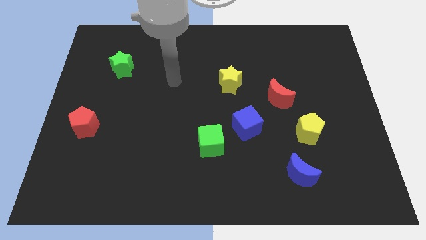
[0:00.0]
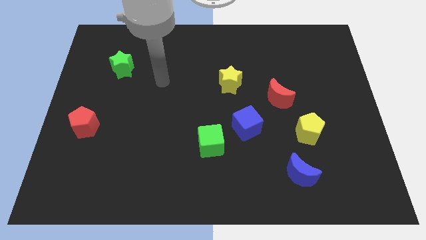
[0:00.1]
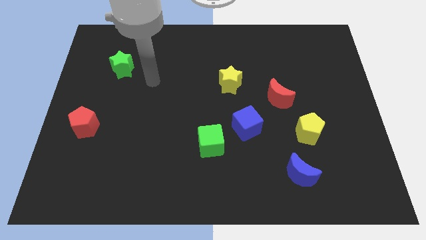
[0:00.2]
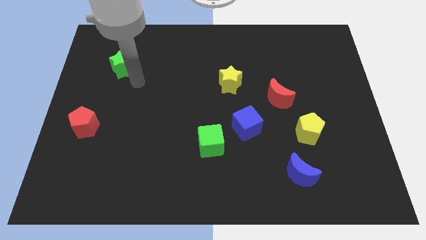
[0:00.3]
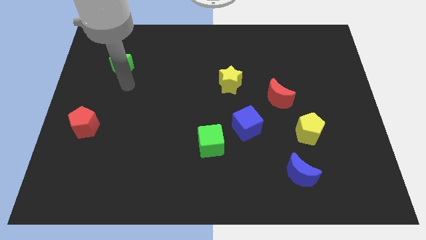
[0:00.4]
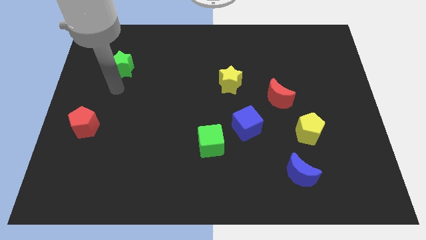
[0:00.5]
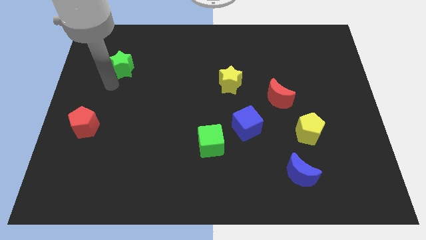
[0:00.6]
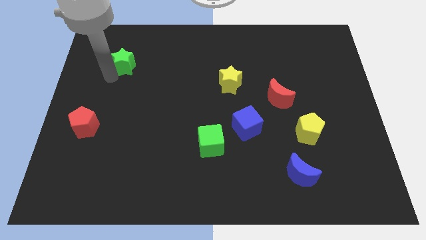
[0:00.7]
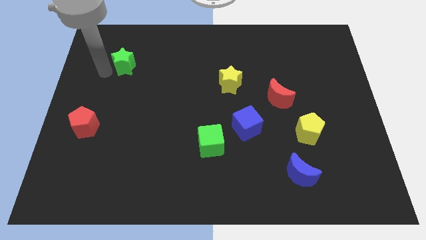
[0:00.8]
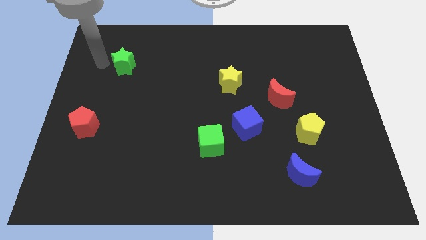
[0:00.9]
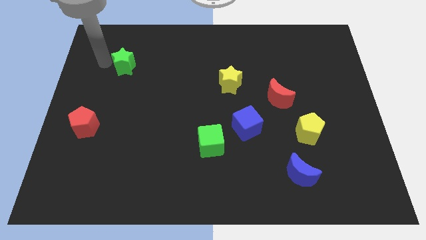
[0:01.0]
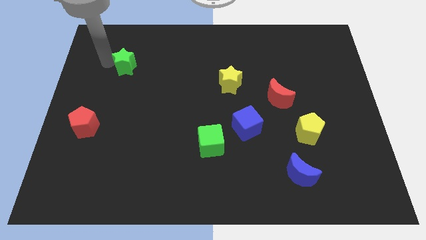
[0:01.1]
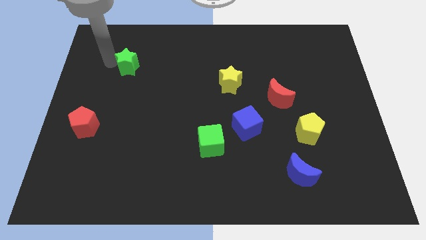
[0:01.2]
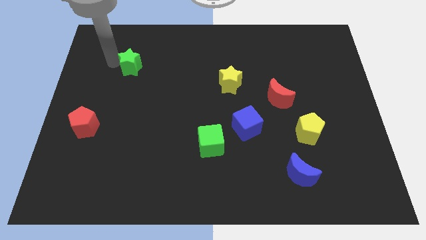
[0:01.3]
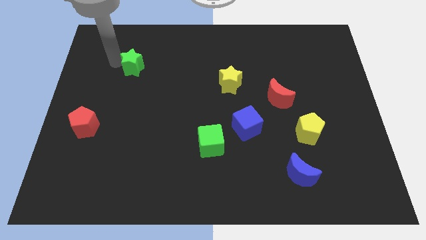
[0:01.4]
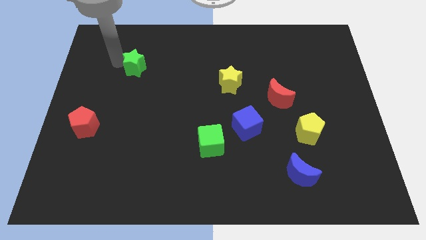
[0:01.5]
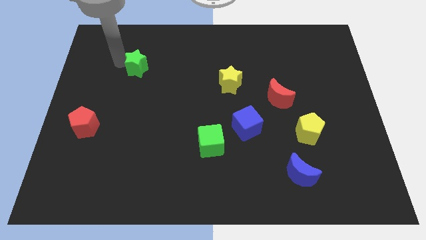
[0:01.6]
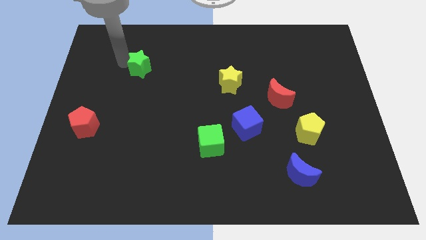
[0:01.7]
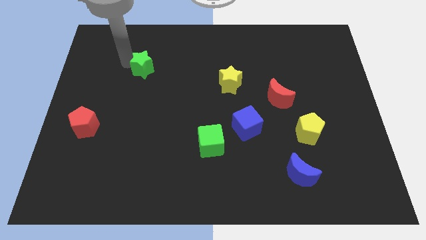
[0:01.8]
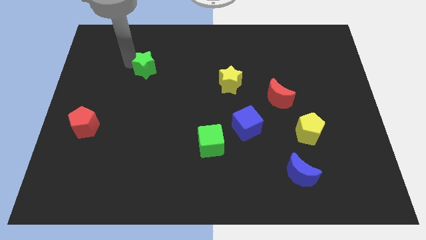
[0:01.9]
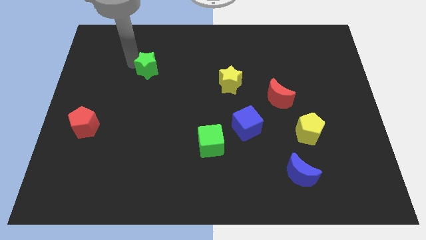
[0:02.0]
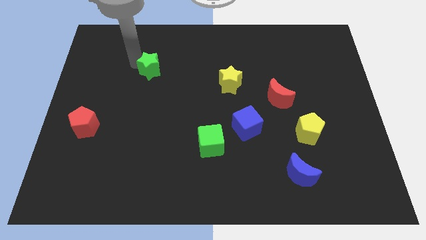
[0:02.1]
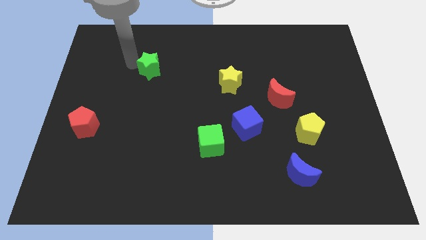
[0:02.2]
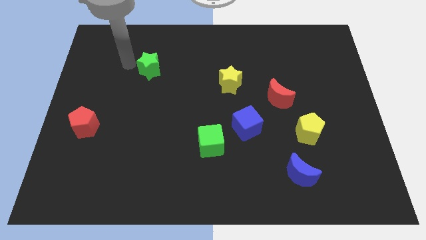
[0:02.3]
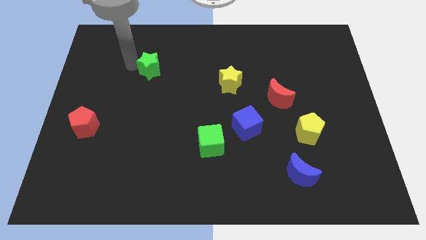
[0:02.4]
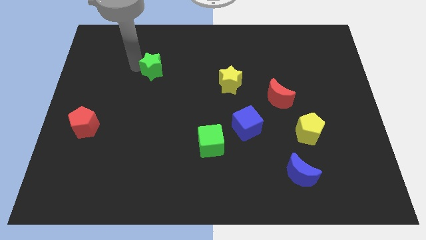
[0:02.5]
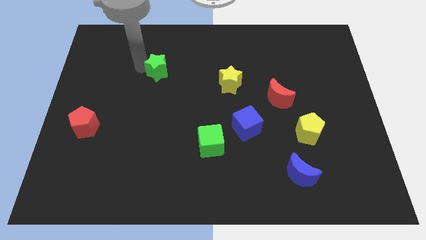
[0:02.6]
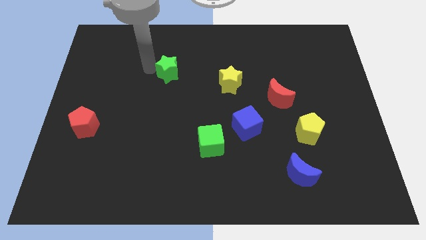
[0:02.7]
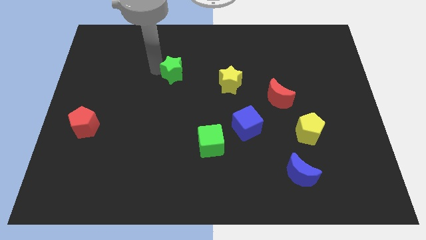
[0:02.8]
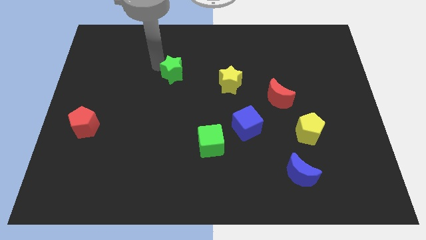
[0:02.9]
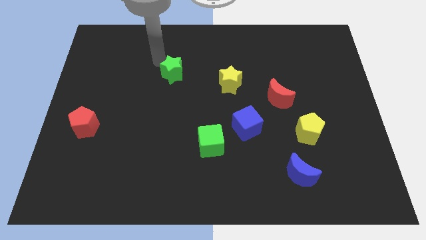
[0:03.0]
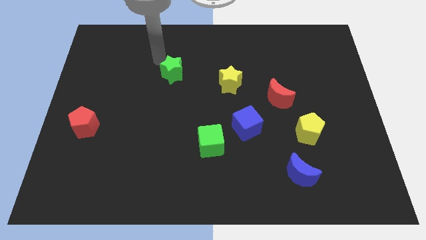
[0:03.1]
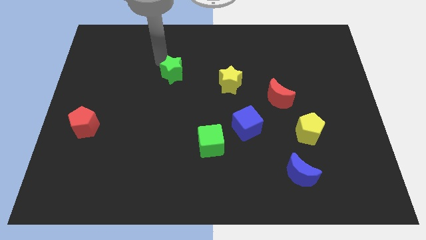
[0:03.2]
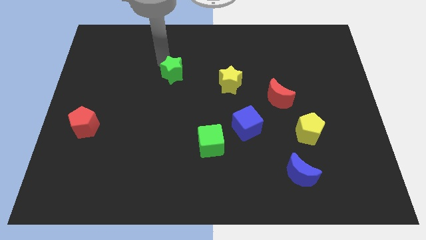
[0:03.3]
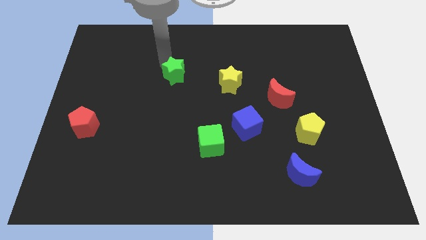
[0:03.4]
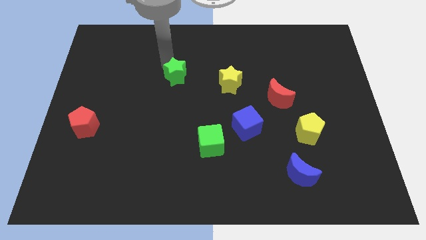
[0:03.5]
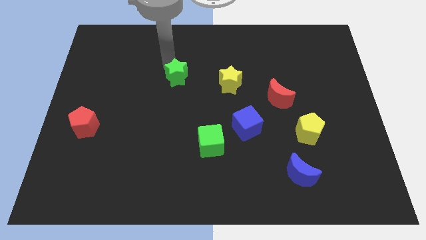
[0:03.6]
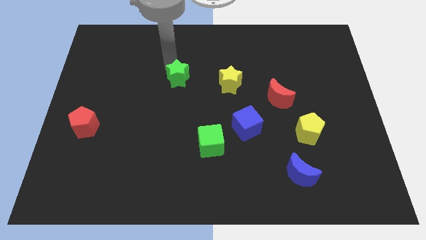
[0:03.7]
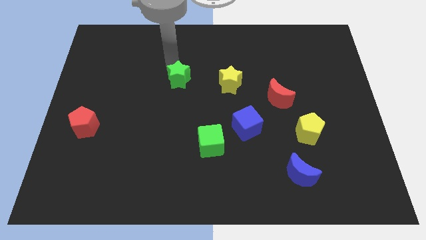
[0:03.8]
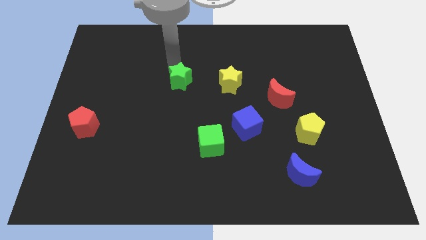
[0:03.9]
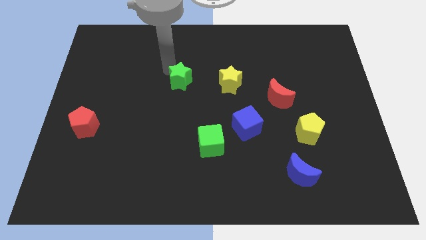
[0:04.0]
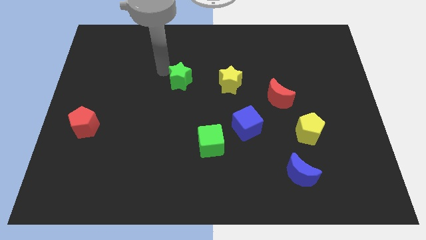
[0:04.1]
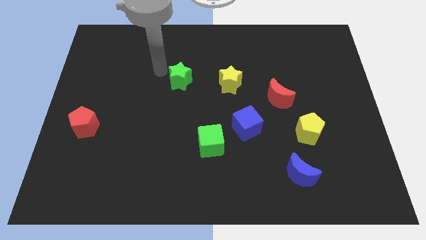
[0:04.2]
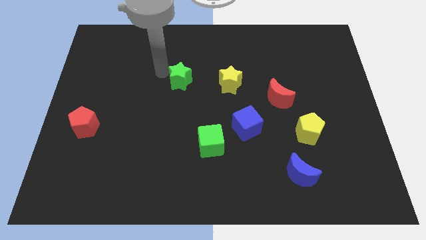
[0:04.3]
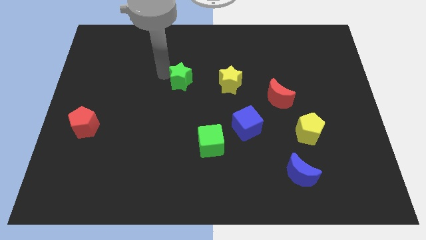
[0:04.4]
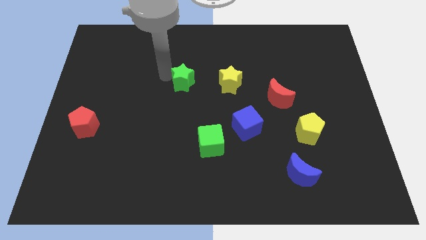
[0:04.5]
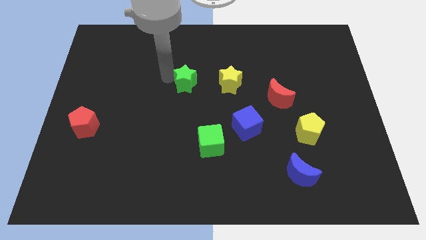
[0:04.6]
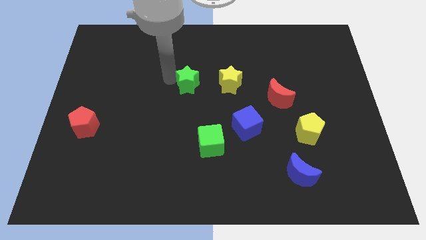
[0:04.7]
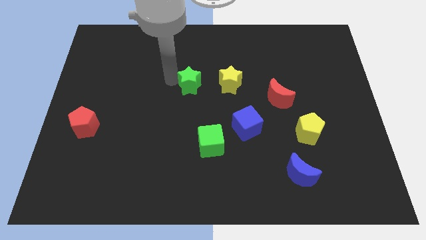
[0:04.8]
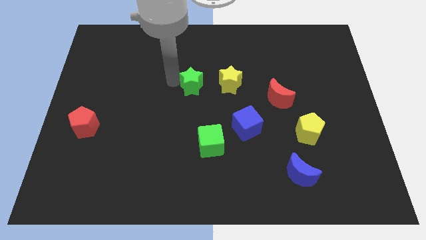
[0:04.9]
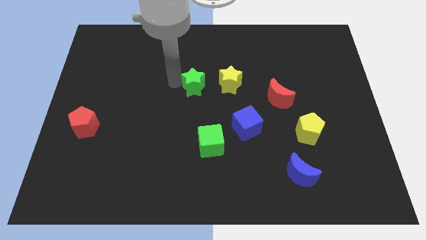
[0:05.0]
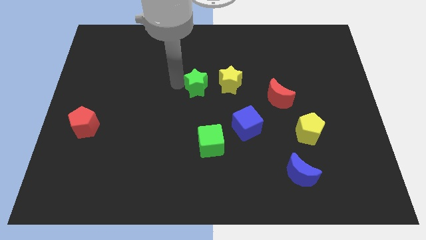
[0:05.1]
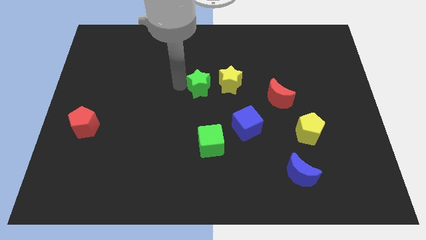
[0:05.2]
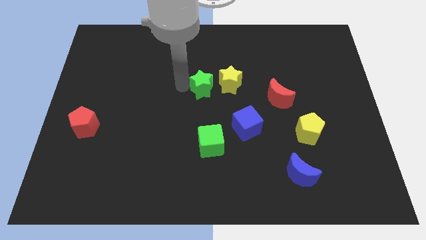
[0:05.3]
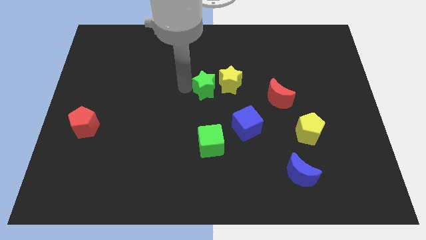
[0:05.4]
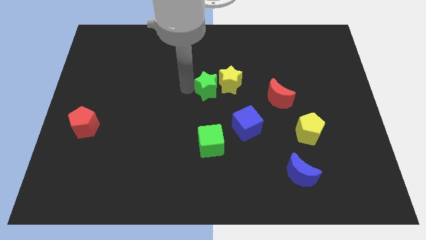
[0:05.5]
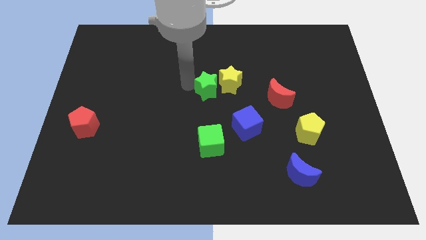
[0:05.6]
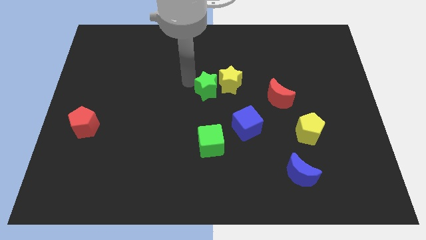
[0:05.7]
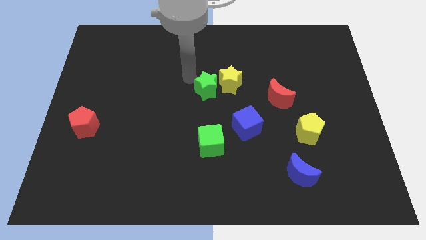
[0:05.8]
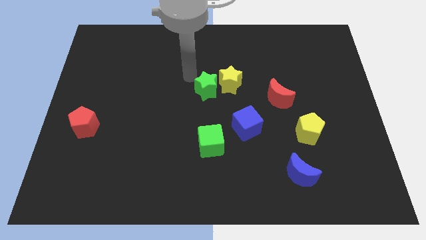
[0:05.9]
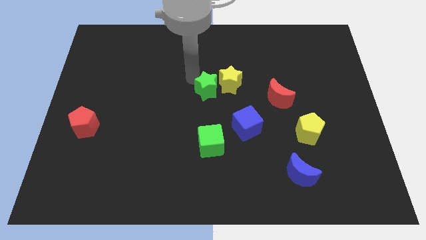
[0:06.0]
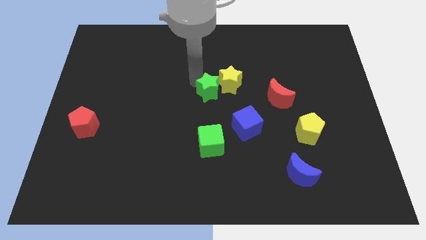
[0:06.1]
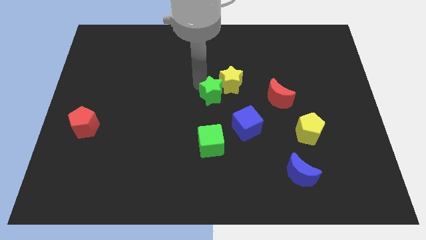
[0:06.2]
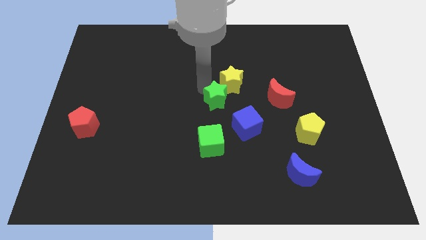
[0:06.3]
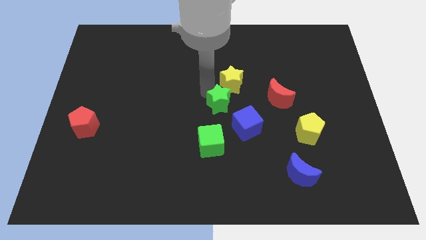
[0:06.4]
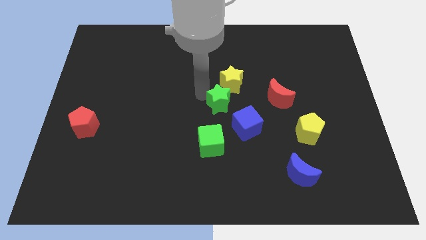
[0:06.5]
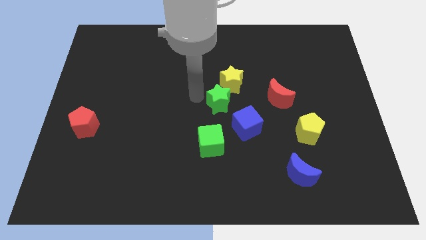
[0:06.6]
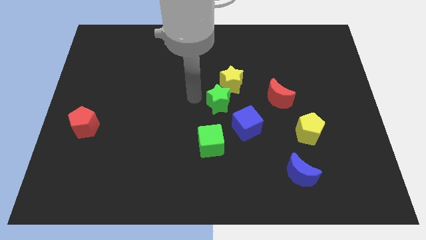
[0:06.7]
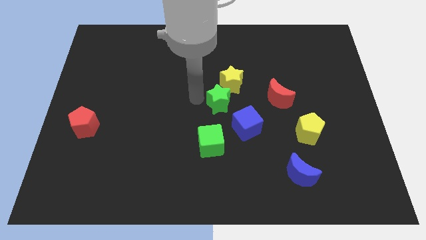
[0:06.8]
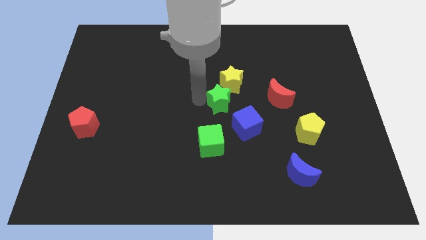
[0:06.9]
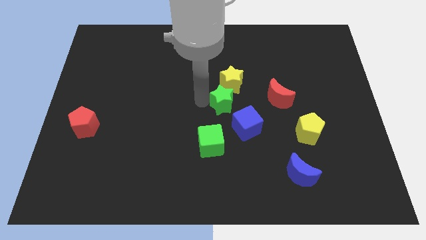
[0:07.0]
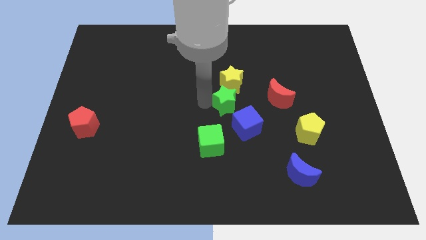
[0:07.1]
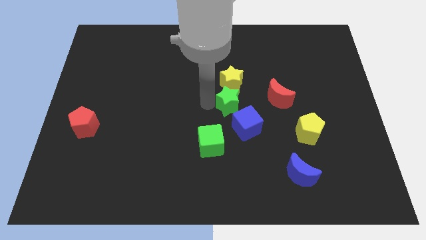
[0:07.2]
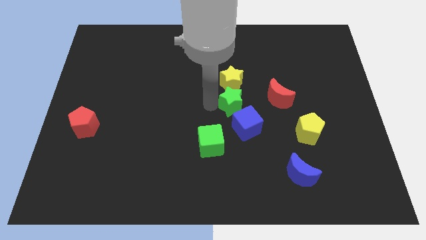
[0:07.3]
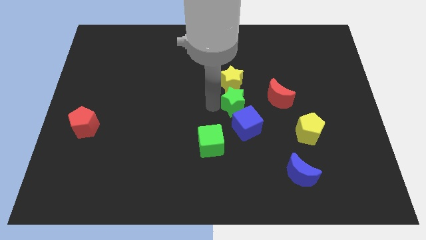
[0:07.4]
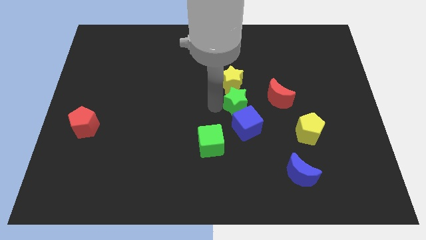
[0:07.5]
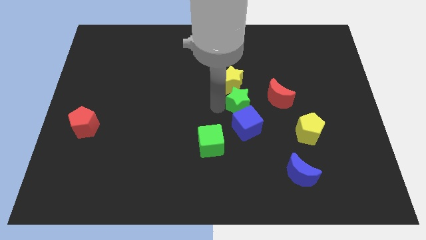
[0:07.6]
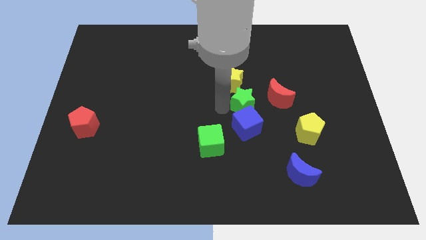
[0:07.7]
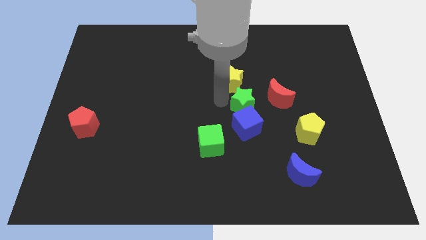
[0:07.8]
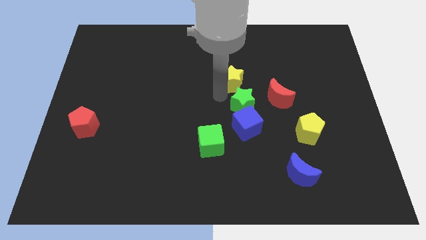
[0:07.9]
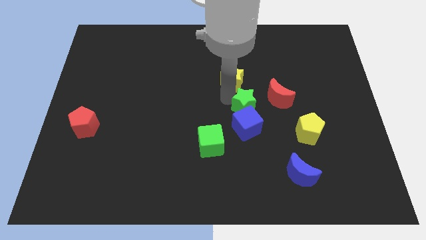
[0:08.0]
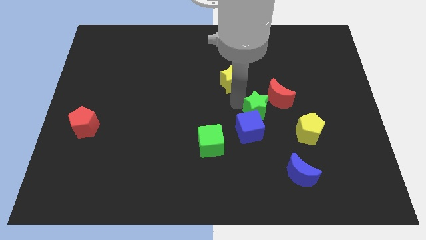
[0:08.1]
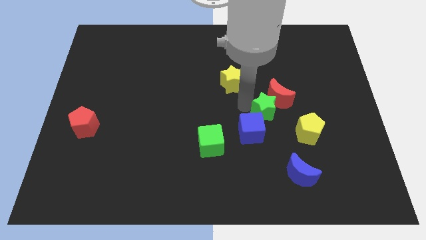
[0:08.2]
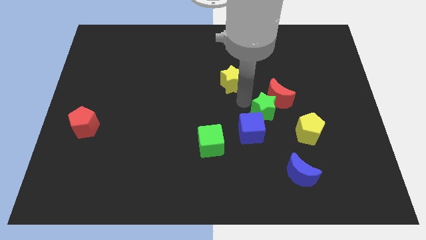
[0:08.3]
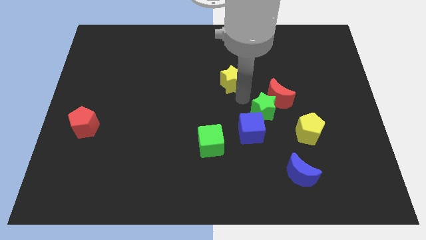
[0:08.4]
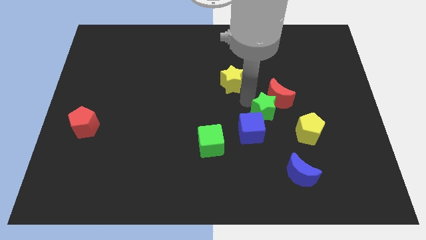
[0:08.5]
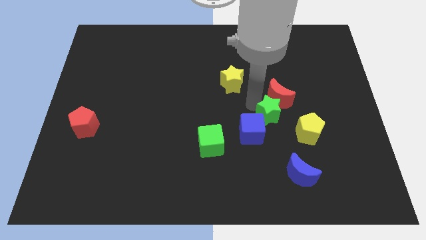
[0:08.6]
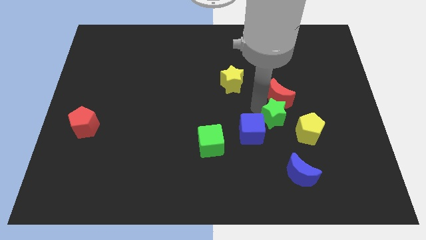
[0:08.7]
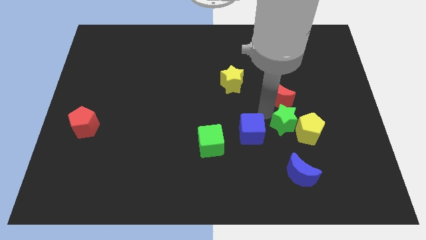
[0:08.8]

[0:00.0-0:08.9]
slide the green star next to the yellow pentagon
